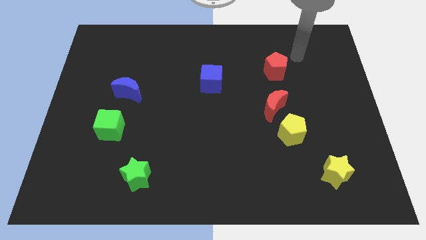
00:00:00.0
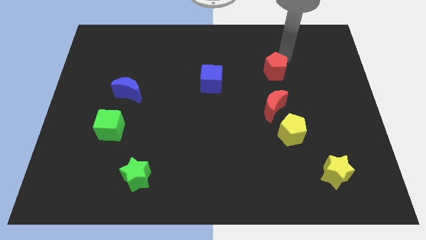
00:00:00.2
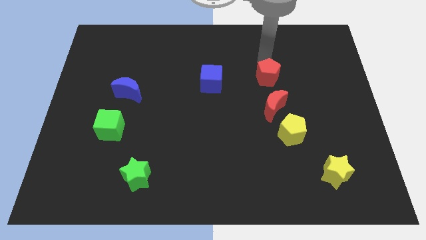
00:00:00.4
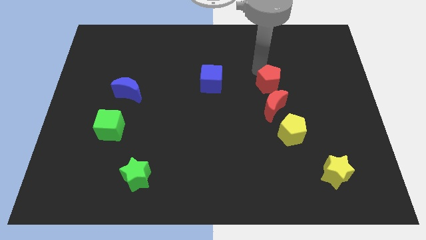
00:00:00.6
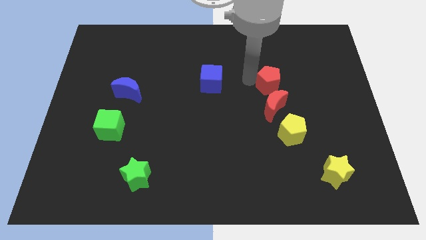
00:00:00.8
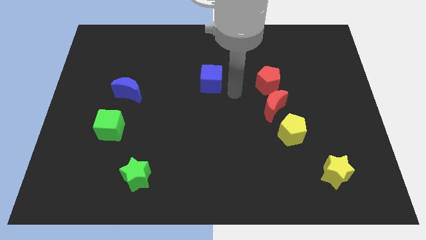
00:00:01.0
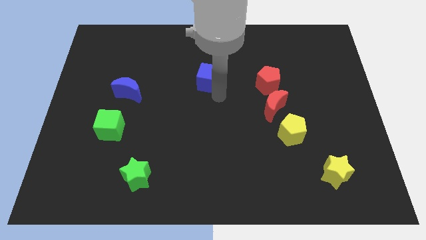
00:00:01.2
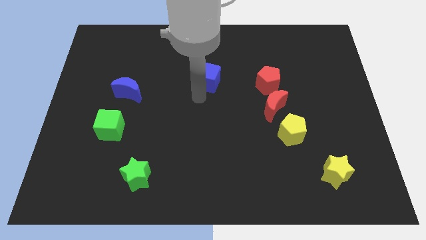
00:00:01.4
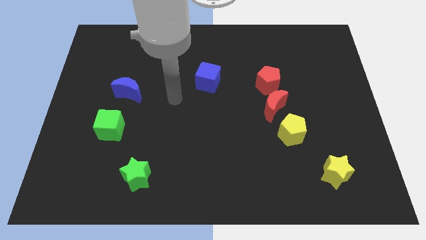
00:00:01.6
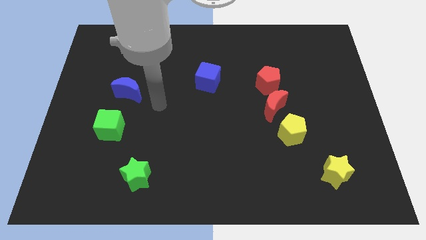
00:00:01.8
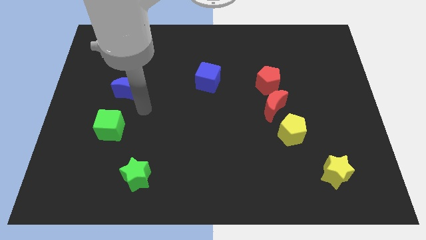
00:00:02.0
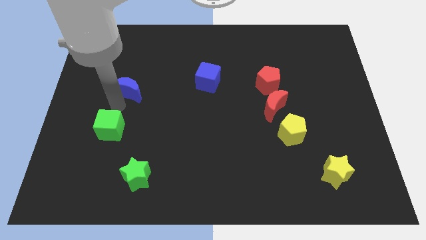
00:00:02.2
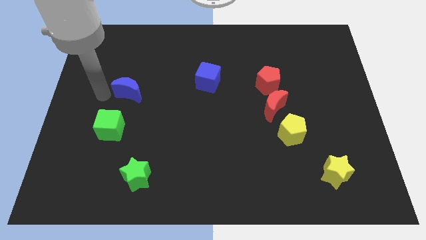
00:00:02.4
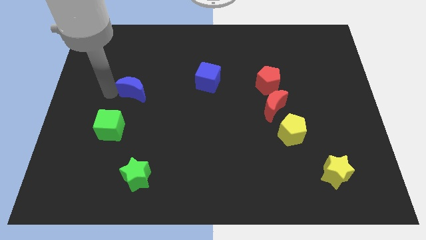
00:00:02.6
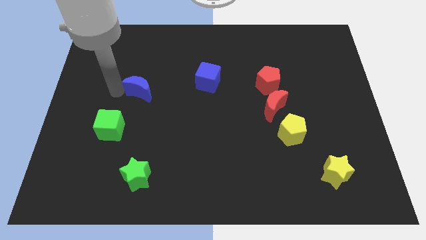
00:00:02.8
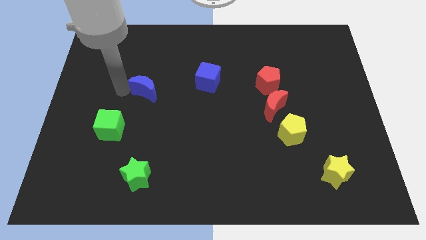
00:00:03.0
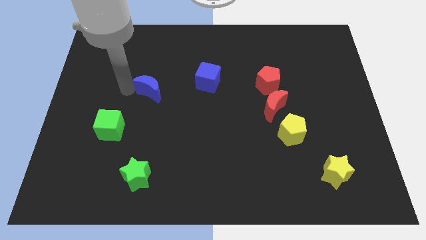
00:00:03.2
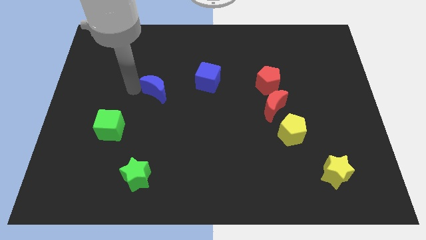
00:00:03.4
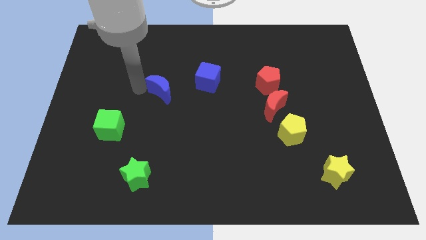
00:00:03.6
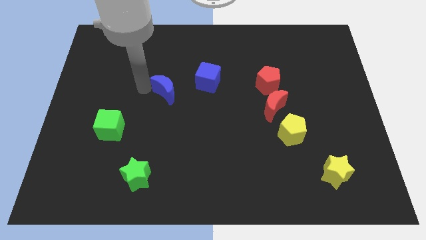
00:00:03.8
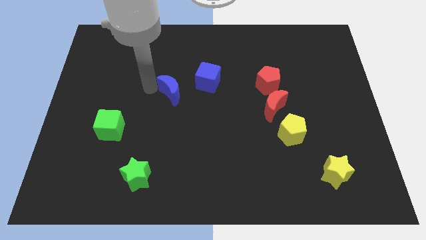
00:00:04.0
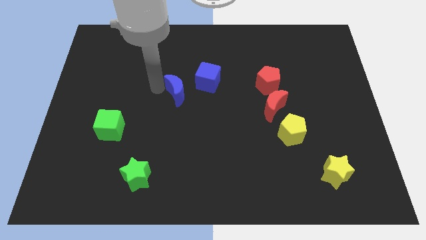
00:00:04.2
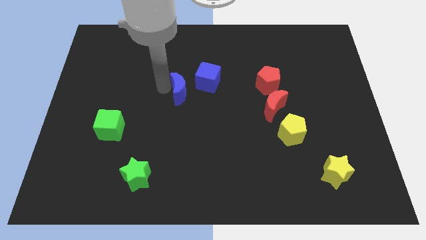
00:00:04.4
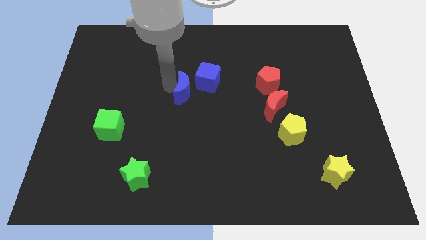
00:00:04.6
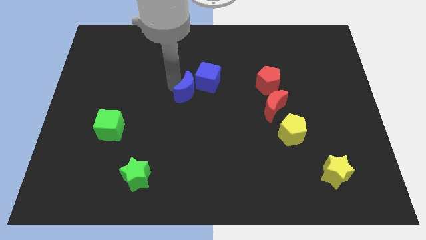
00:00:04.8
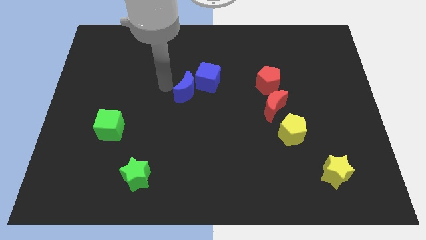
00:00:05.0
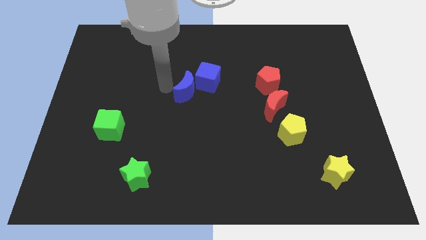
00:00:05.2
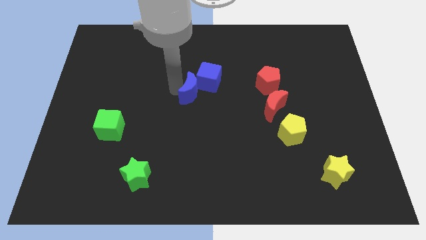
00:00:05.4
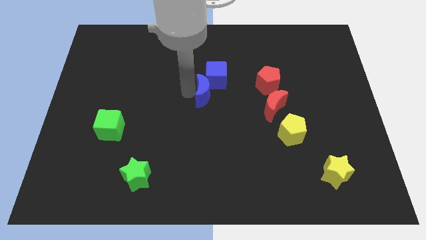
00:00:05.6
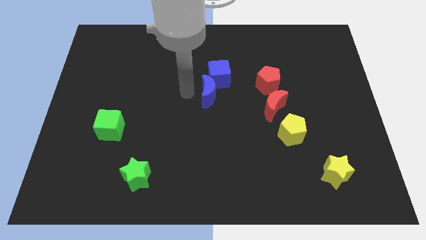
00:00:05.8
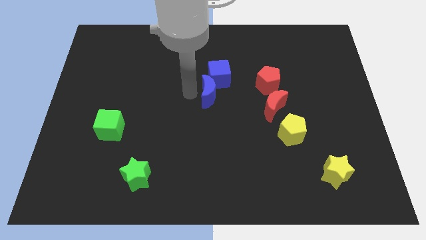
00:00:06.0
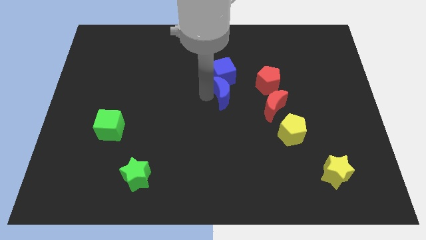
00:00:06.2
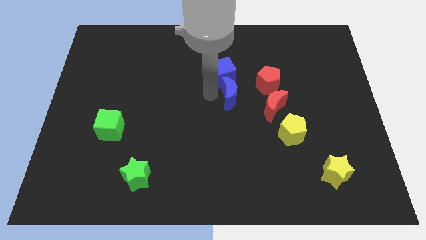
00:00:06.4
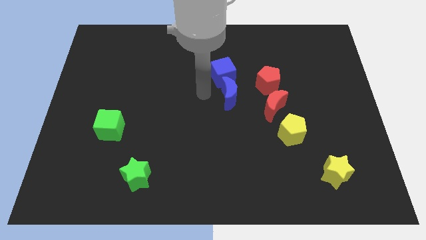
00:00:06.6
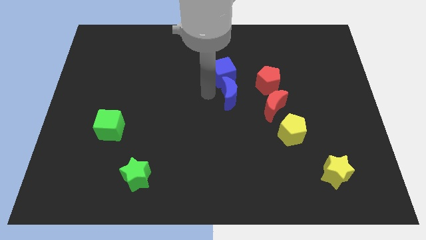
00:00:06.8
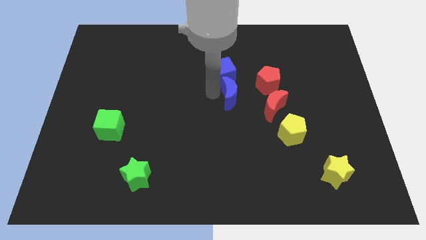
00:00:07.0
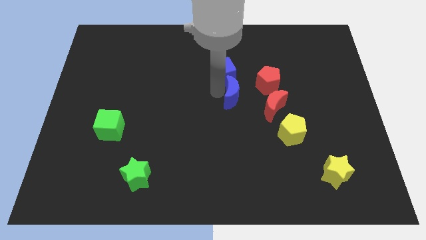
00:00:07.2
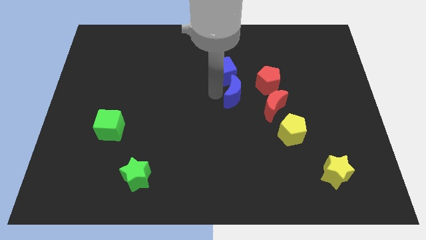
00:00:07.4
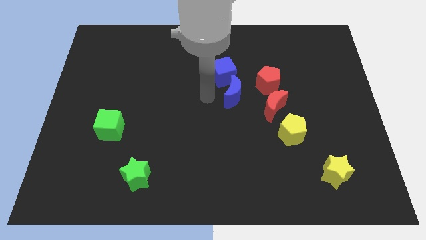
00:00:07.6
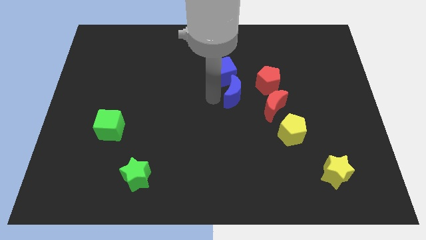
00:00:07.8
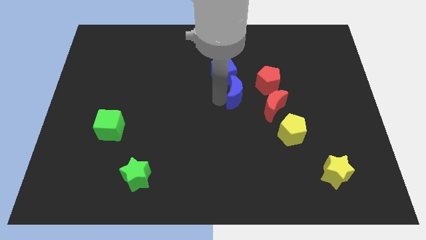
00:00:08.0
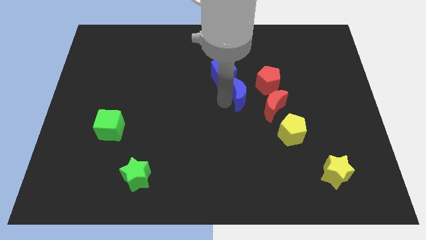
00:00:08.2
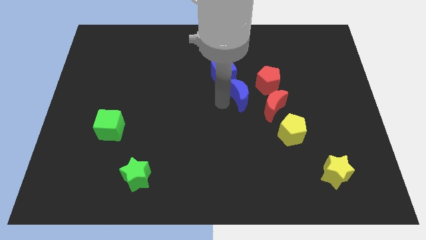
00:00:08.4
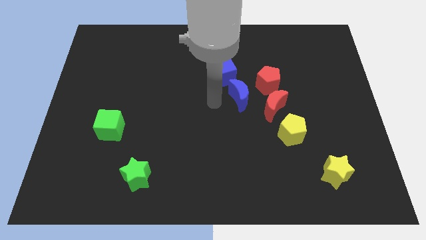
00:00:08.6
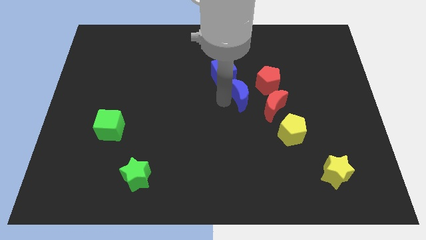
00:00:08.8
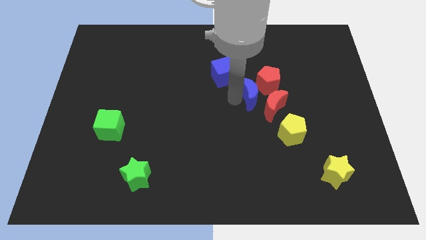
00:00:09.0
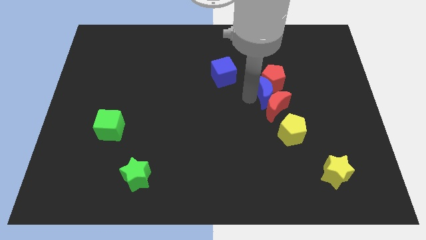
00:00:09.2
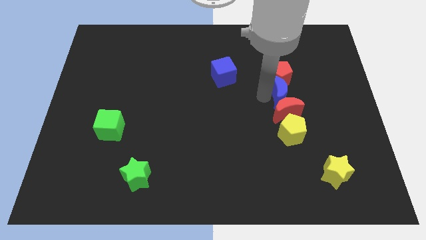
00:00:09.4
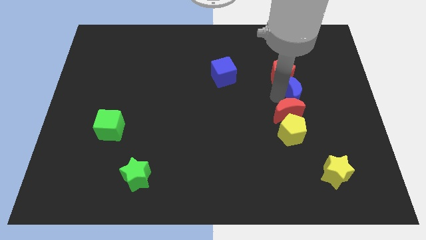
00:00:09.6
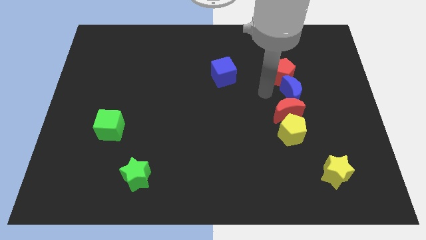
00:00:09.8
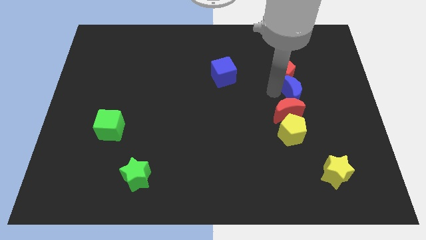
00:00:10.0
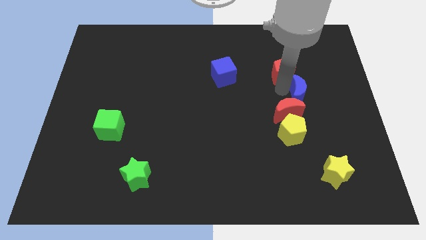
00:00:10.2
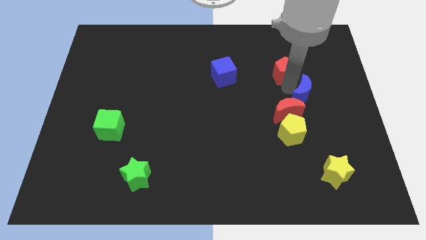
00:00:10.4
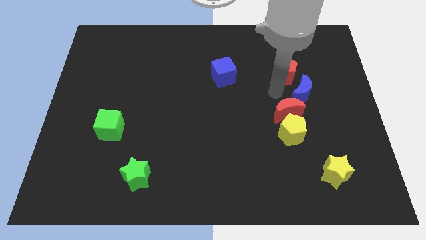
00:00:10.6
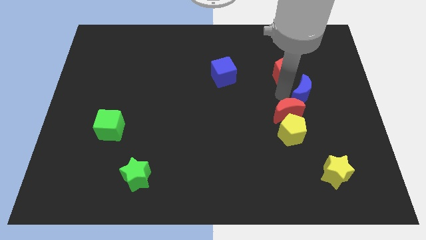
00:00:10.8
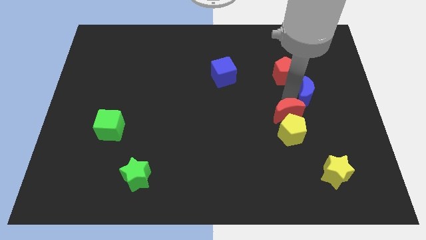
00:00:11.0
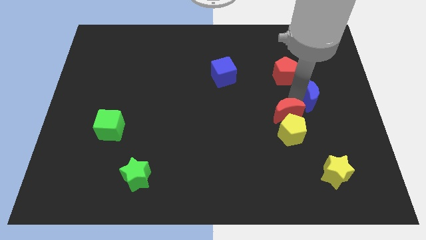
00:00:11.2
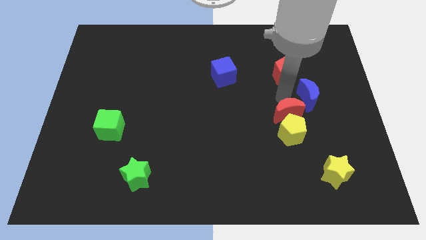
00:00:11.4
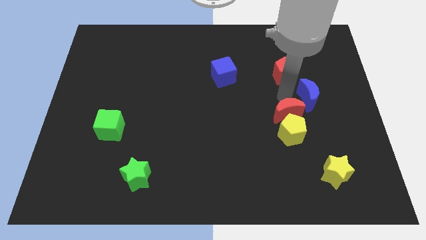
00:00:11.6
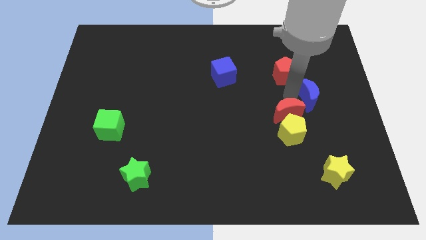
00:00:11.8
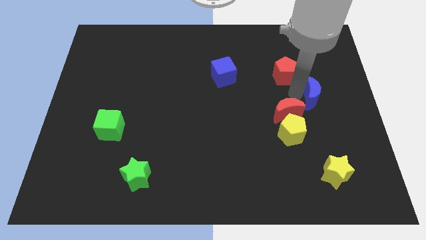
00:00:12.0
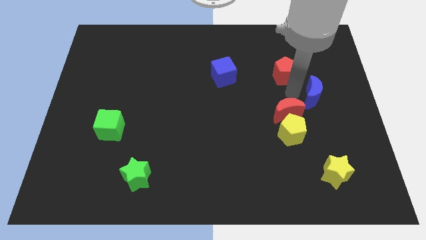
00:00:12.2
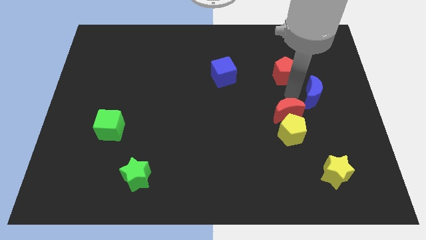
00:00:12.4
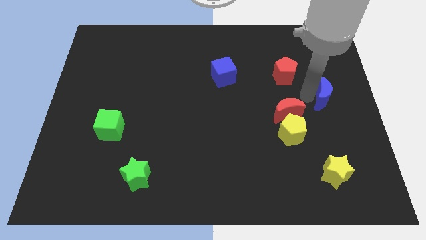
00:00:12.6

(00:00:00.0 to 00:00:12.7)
put the blue moon to the center right
